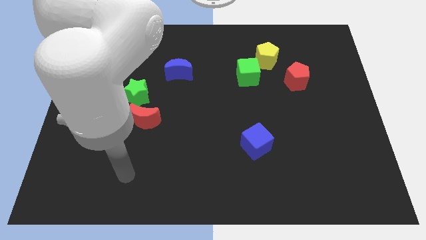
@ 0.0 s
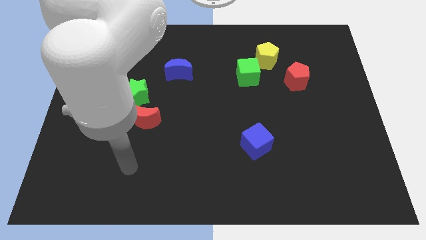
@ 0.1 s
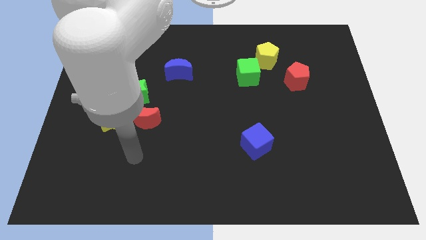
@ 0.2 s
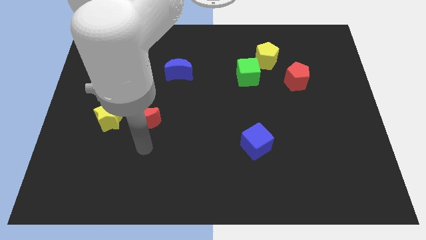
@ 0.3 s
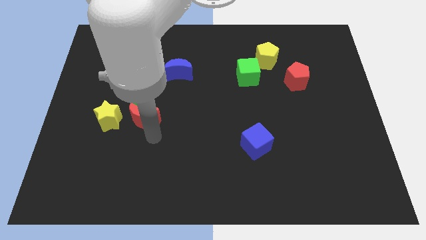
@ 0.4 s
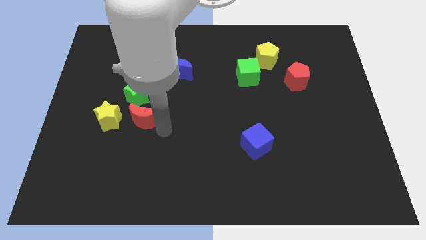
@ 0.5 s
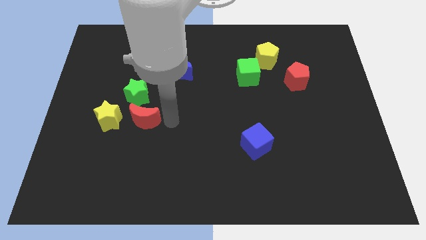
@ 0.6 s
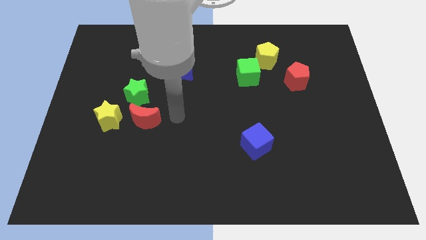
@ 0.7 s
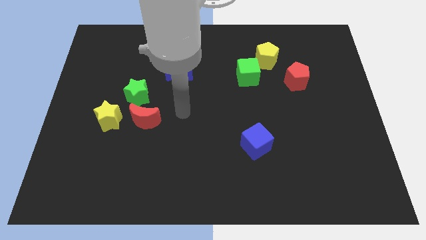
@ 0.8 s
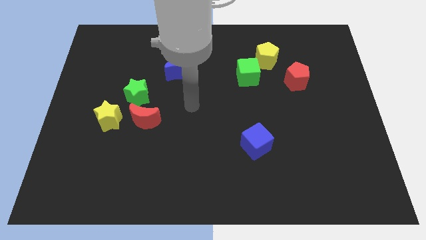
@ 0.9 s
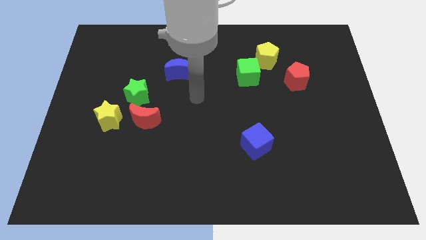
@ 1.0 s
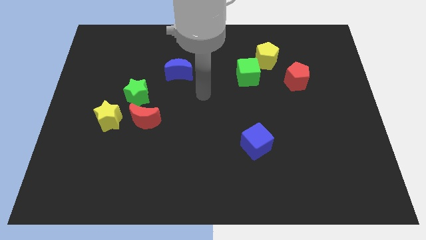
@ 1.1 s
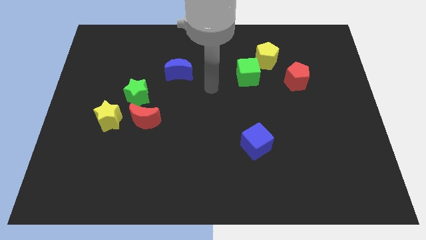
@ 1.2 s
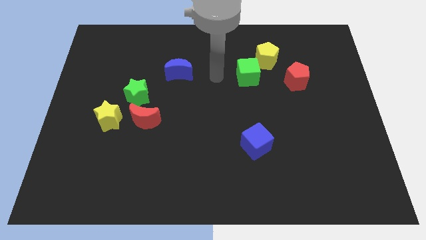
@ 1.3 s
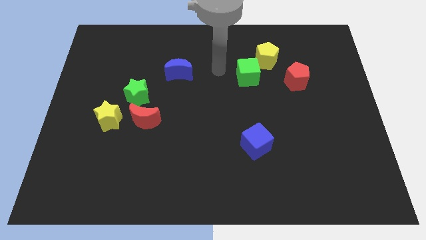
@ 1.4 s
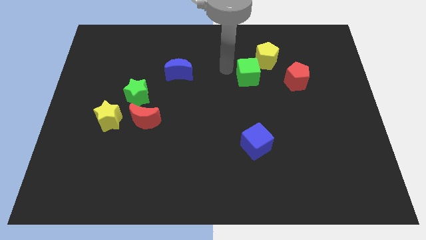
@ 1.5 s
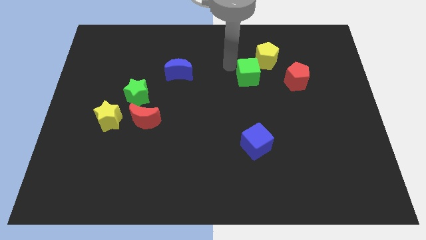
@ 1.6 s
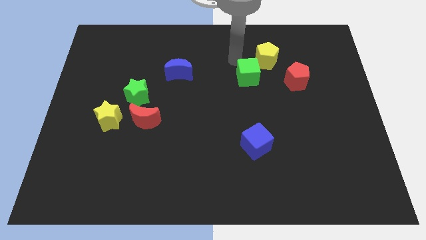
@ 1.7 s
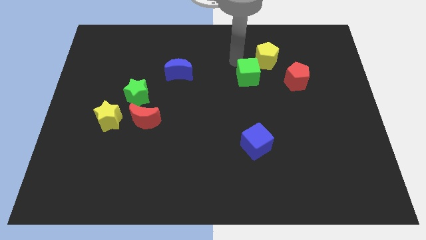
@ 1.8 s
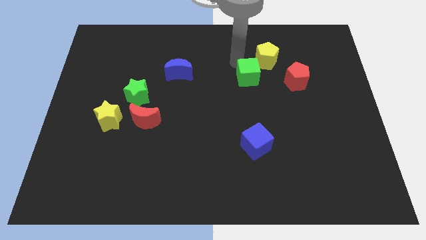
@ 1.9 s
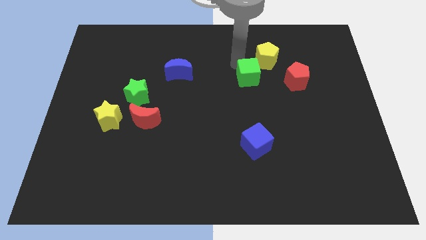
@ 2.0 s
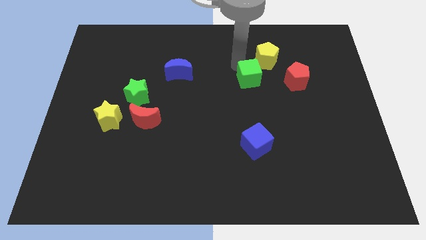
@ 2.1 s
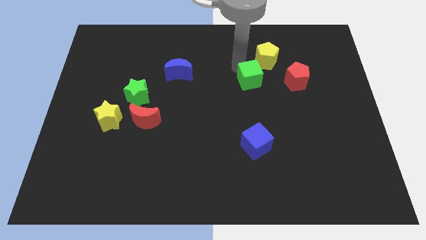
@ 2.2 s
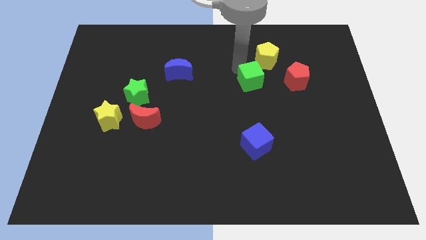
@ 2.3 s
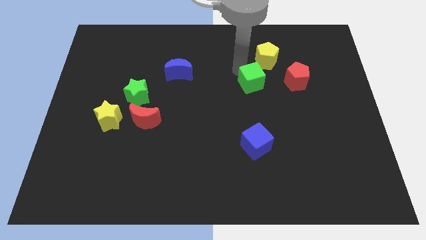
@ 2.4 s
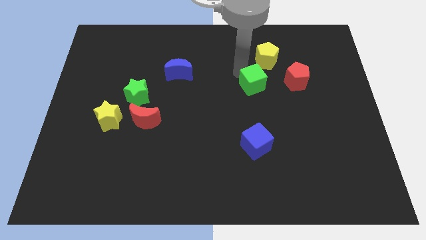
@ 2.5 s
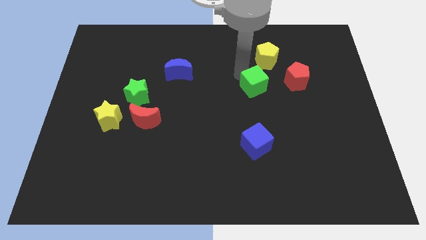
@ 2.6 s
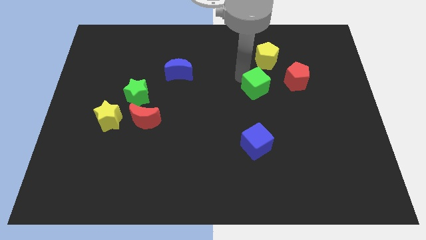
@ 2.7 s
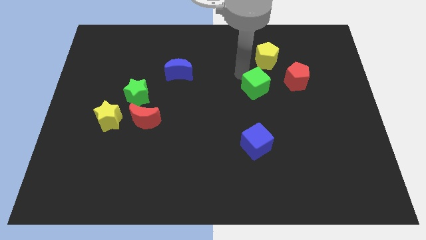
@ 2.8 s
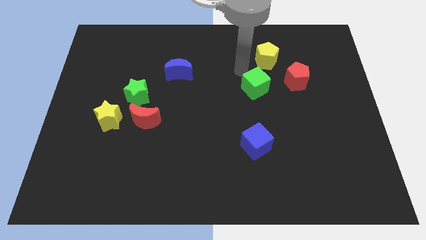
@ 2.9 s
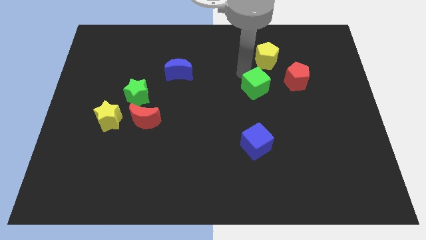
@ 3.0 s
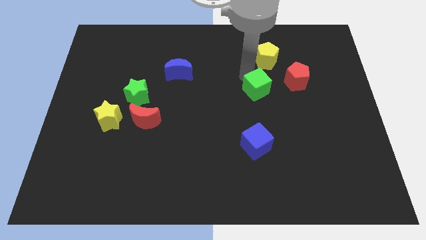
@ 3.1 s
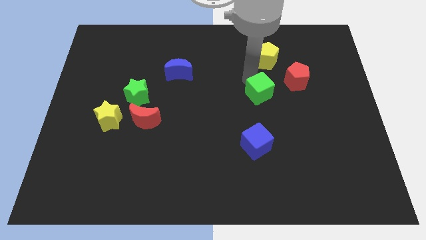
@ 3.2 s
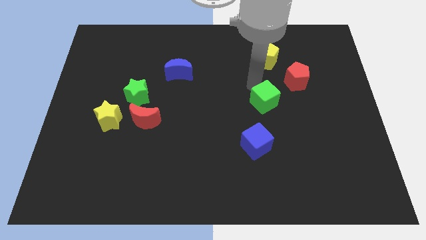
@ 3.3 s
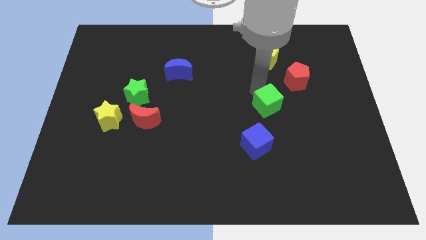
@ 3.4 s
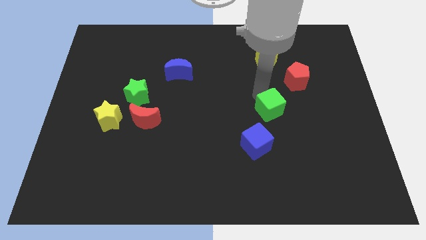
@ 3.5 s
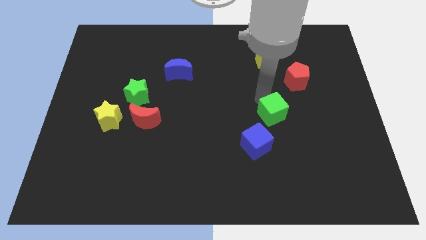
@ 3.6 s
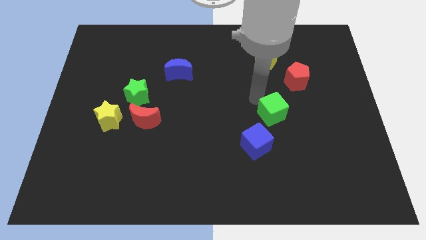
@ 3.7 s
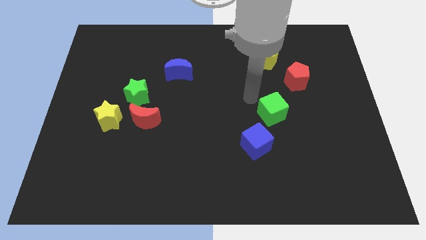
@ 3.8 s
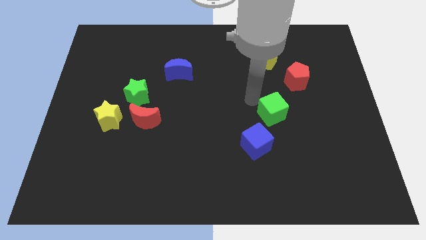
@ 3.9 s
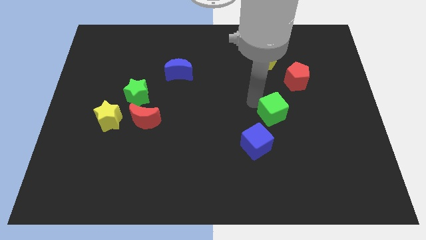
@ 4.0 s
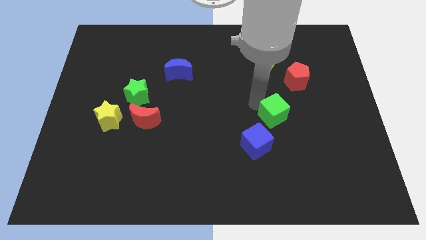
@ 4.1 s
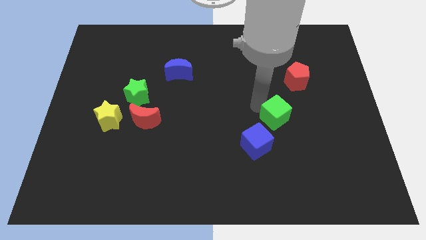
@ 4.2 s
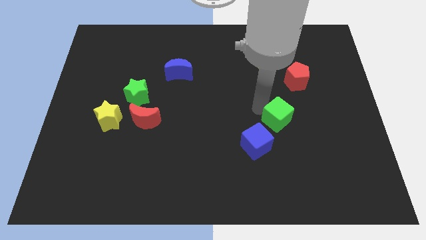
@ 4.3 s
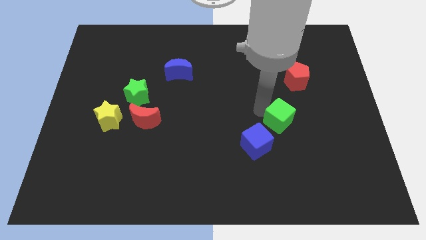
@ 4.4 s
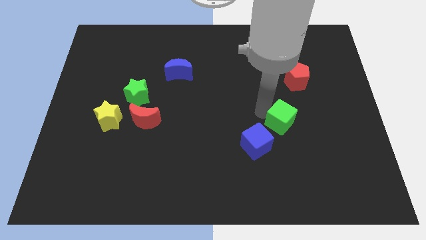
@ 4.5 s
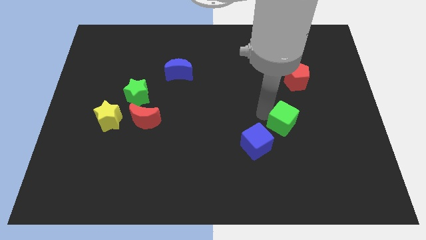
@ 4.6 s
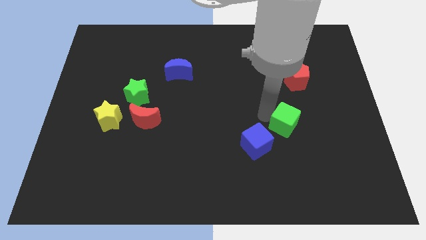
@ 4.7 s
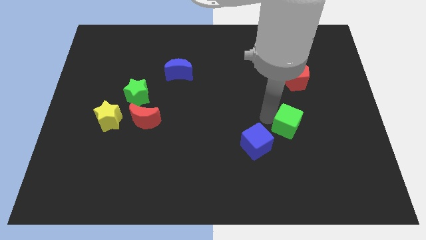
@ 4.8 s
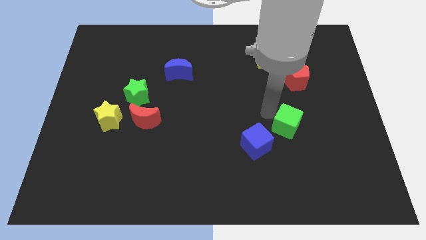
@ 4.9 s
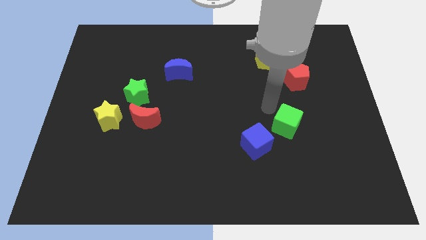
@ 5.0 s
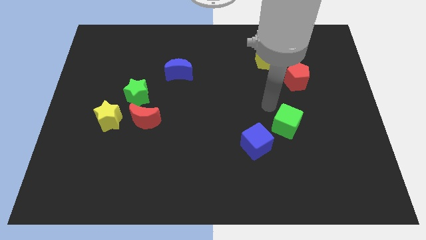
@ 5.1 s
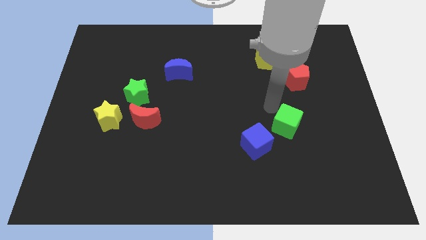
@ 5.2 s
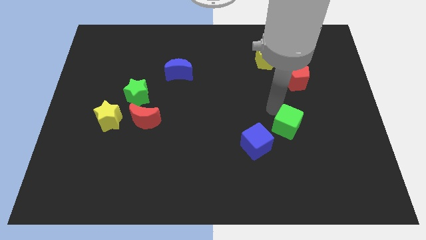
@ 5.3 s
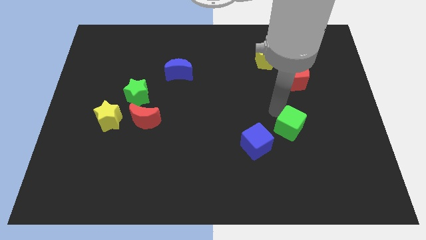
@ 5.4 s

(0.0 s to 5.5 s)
slide the green cube just right of the blue cube

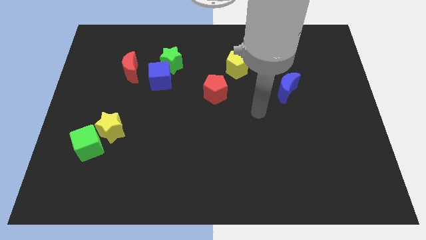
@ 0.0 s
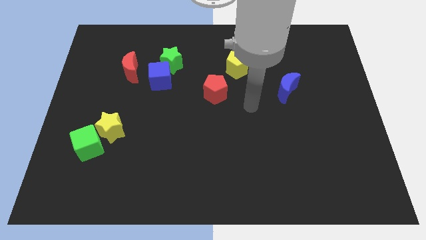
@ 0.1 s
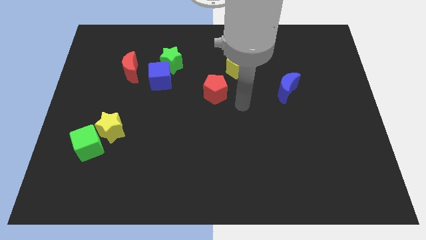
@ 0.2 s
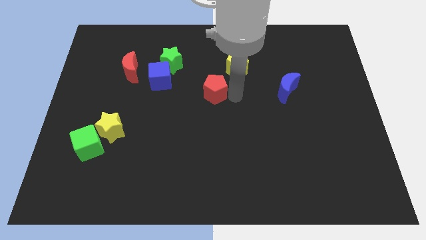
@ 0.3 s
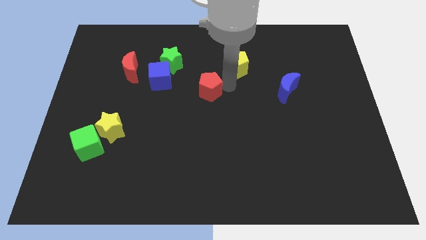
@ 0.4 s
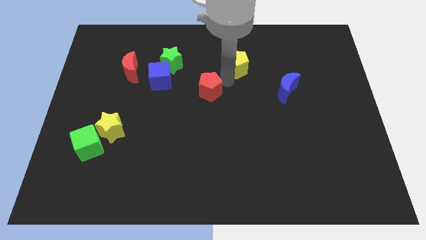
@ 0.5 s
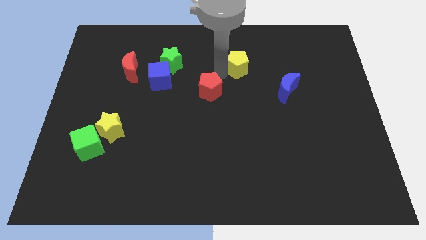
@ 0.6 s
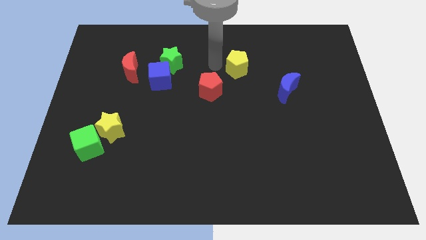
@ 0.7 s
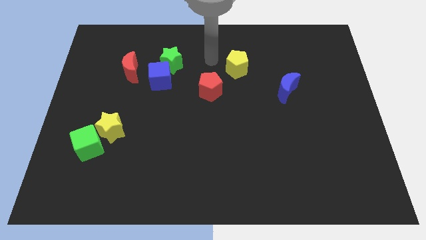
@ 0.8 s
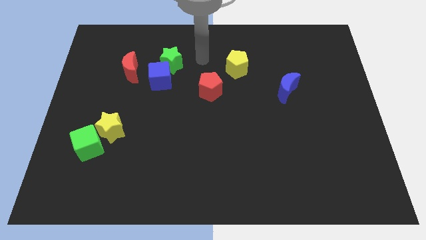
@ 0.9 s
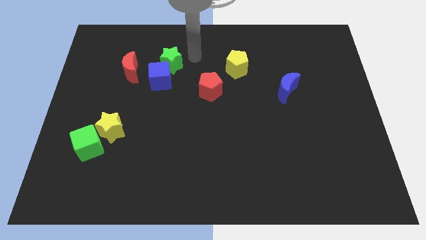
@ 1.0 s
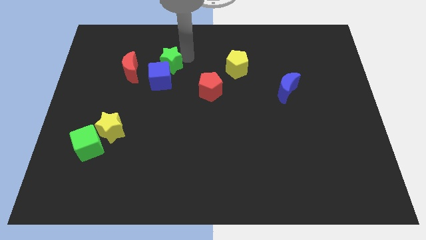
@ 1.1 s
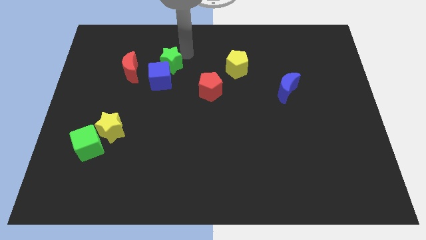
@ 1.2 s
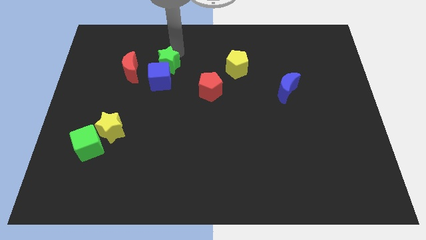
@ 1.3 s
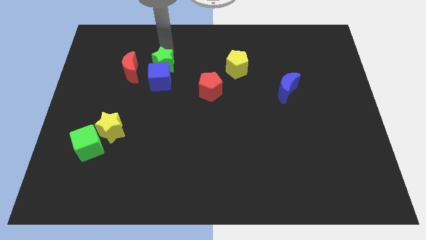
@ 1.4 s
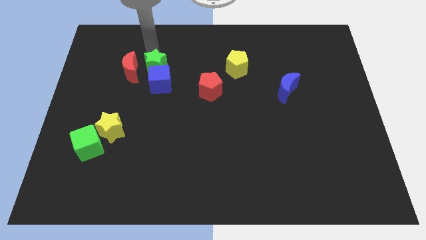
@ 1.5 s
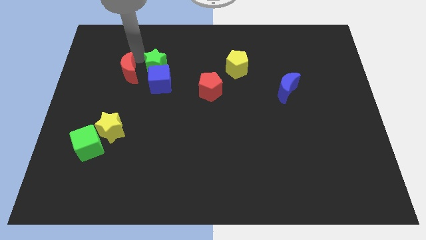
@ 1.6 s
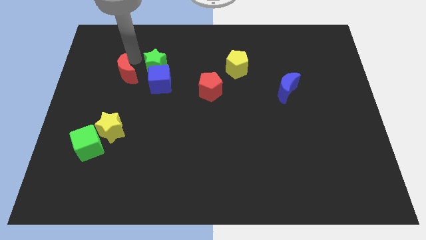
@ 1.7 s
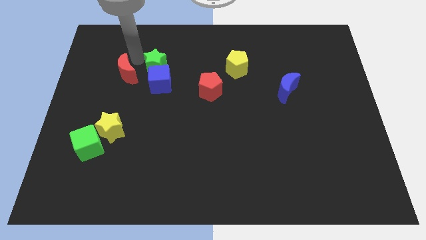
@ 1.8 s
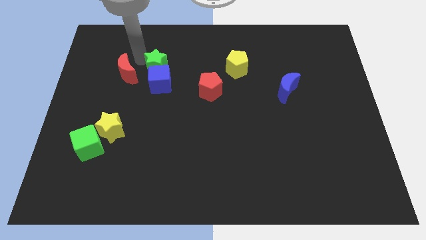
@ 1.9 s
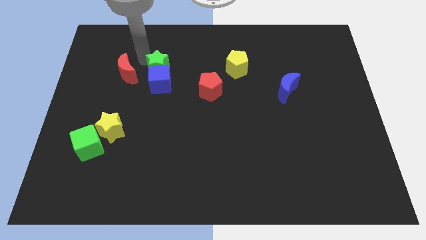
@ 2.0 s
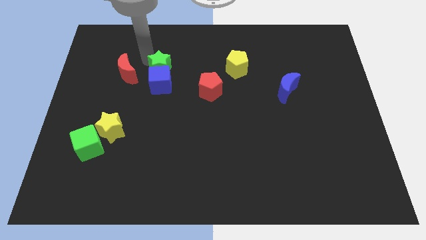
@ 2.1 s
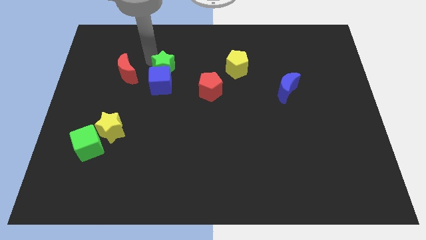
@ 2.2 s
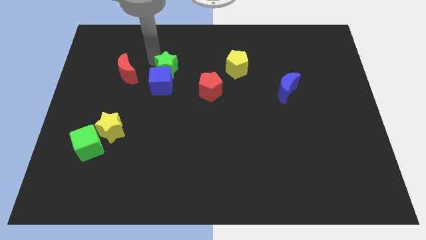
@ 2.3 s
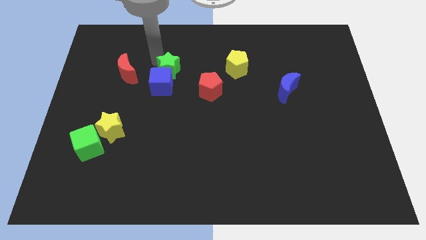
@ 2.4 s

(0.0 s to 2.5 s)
move the green star to the top left of the red pentagon
